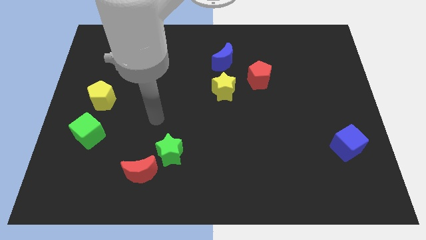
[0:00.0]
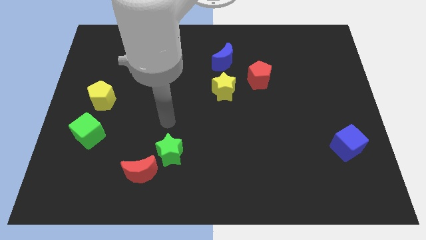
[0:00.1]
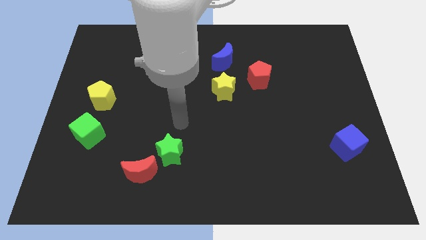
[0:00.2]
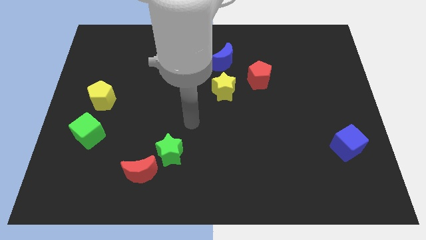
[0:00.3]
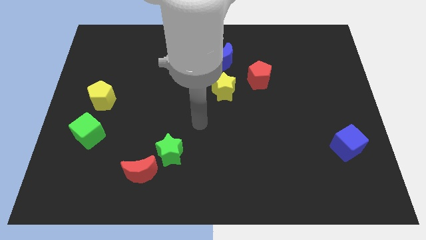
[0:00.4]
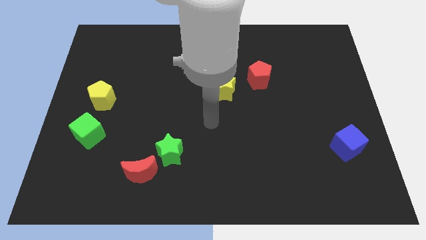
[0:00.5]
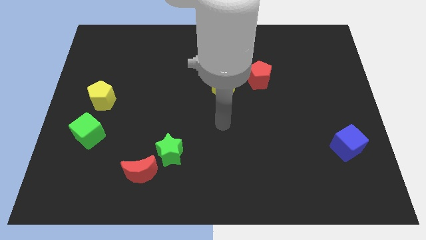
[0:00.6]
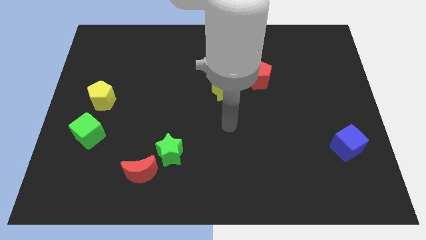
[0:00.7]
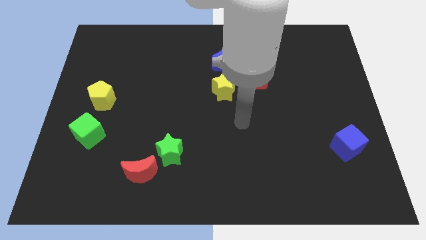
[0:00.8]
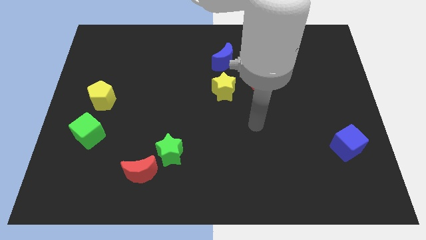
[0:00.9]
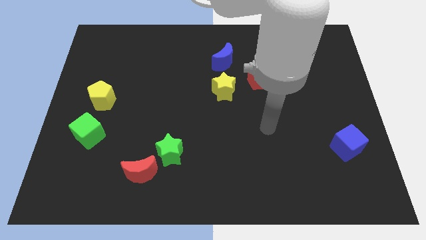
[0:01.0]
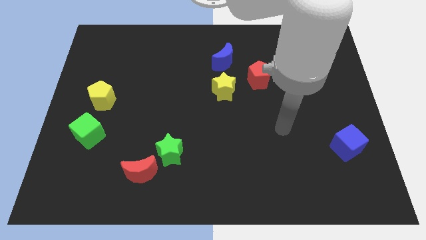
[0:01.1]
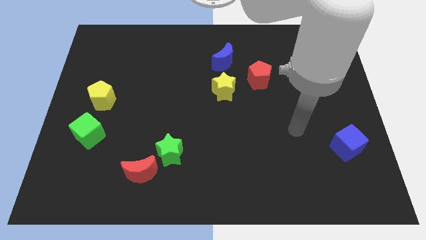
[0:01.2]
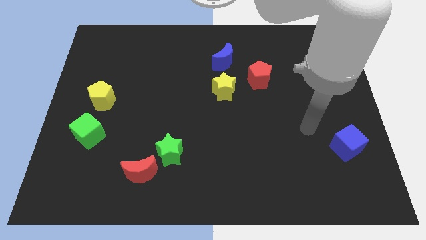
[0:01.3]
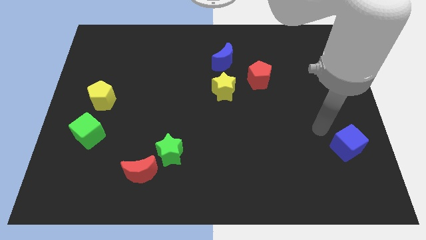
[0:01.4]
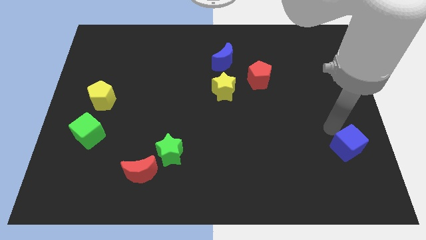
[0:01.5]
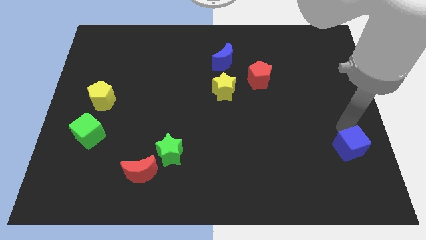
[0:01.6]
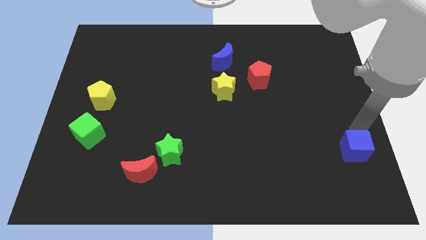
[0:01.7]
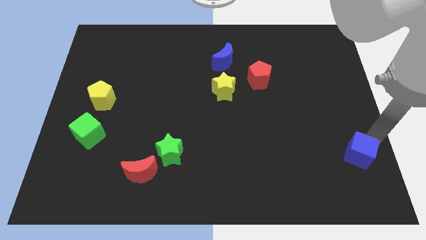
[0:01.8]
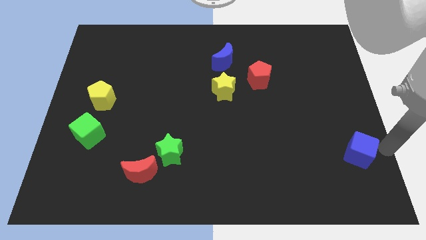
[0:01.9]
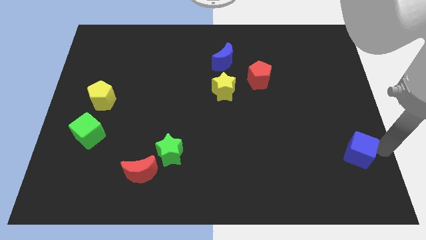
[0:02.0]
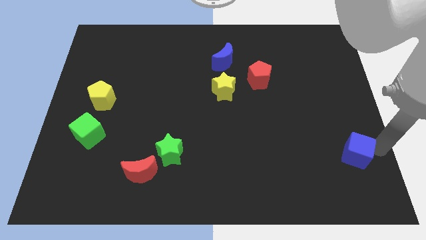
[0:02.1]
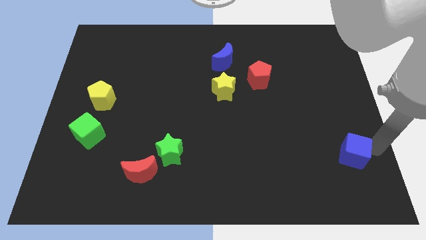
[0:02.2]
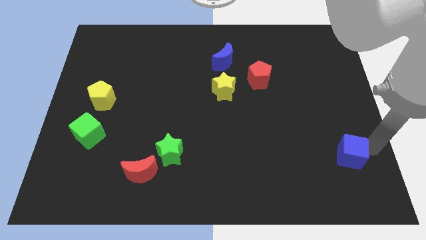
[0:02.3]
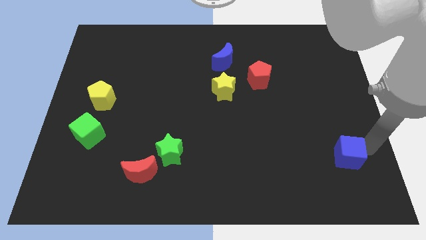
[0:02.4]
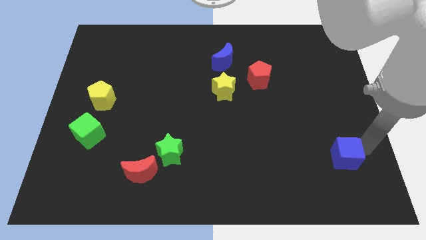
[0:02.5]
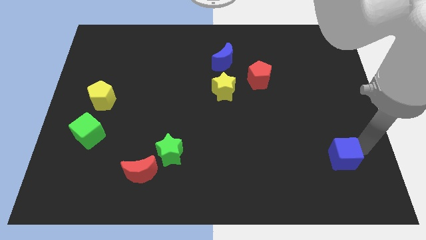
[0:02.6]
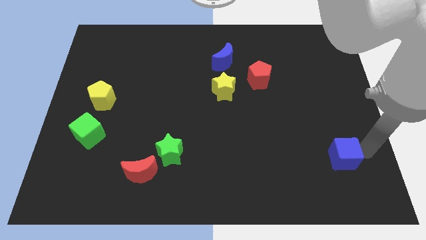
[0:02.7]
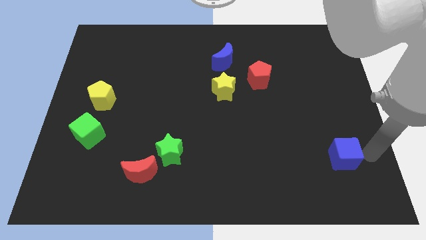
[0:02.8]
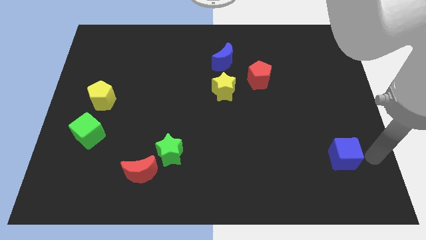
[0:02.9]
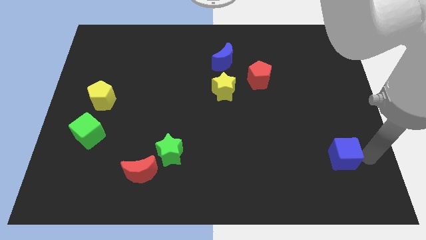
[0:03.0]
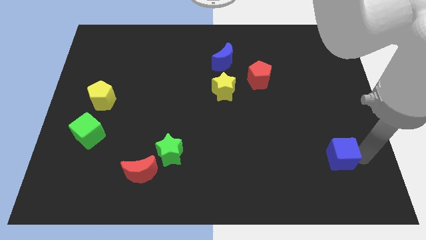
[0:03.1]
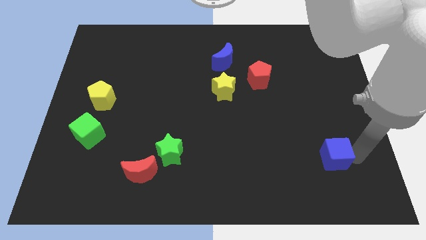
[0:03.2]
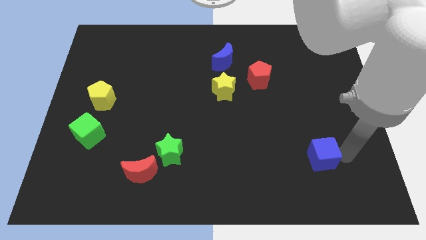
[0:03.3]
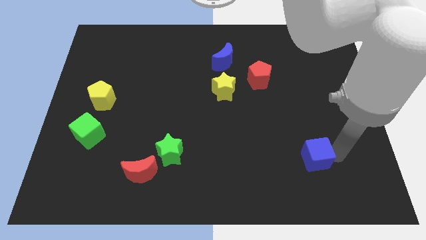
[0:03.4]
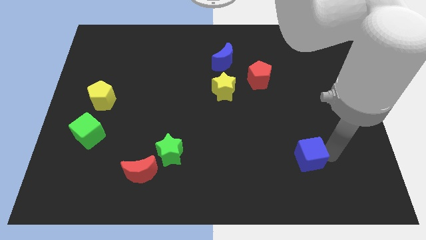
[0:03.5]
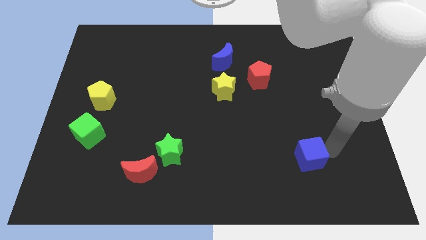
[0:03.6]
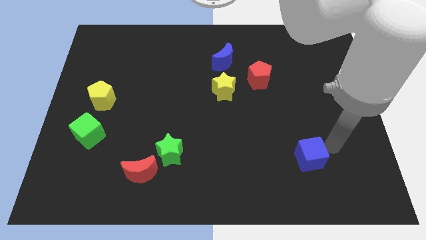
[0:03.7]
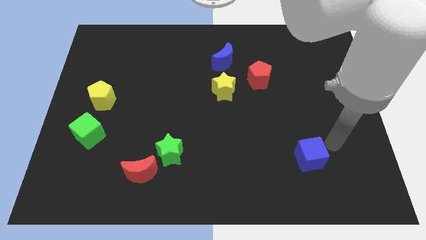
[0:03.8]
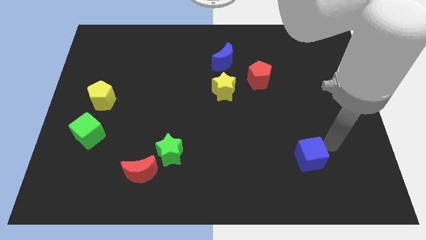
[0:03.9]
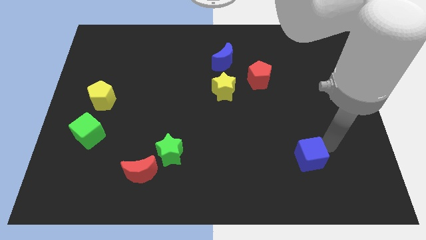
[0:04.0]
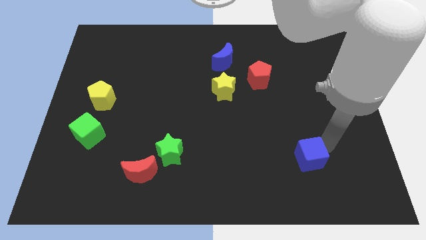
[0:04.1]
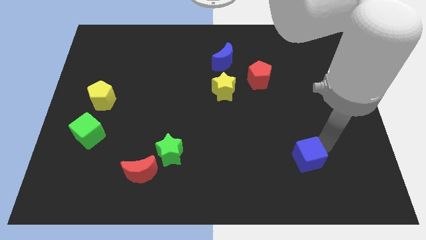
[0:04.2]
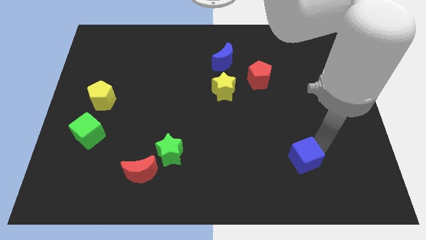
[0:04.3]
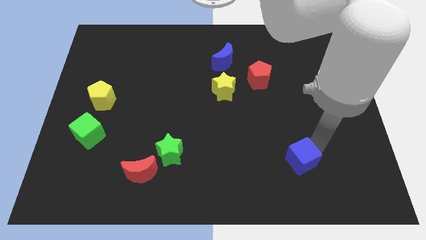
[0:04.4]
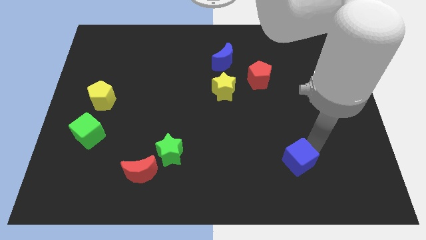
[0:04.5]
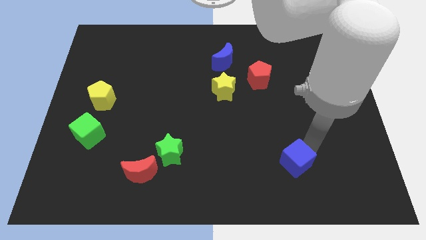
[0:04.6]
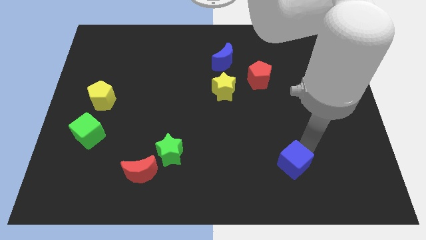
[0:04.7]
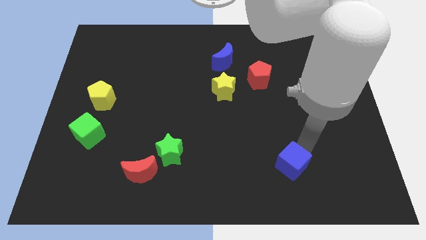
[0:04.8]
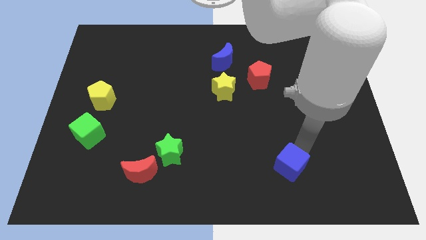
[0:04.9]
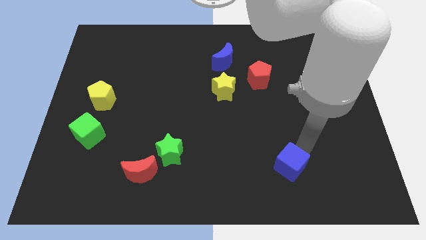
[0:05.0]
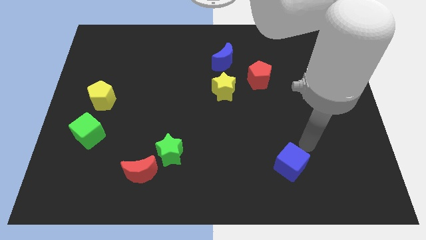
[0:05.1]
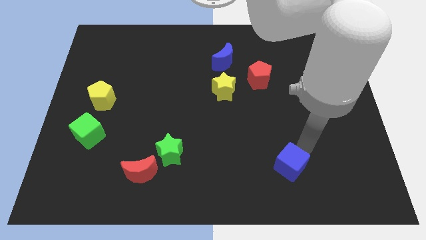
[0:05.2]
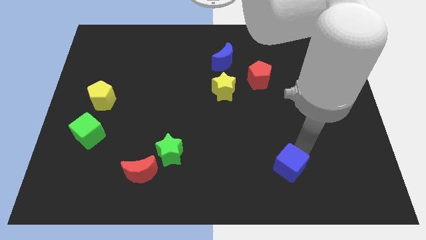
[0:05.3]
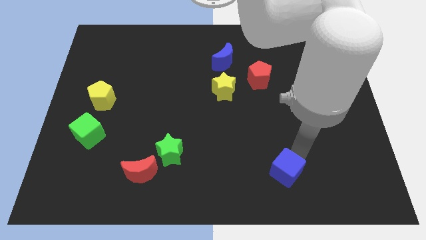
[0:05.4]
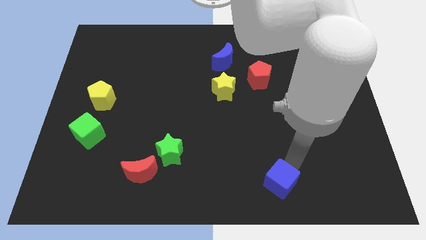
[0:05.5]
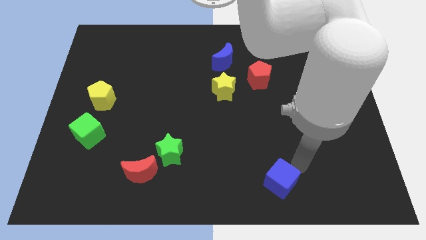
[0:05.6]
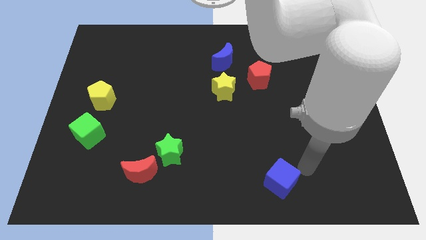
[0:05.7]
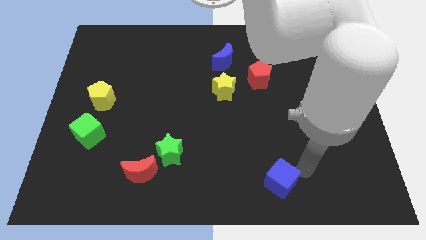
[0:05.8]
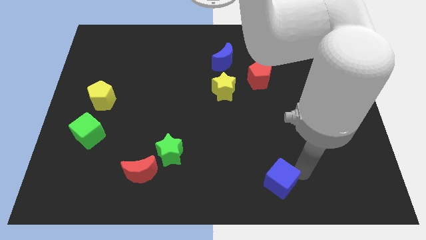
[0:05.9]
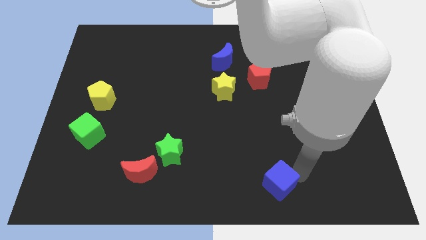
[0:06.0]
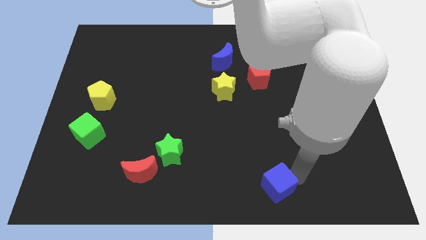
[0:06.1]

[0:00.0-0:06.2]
push the blue cube to the bottom side

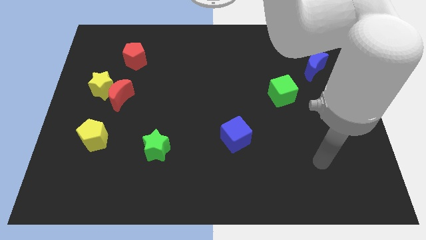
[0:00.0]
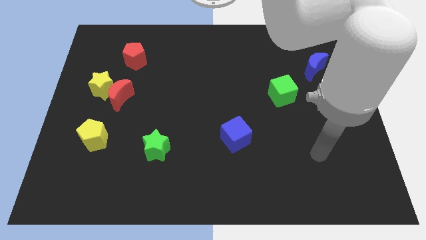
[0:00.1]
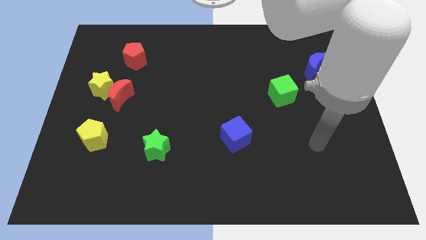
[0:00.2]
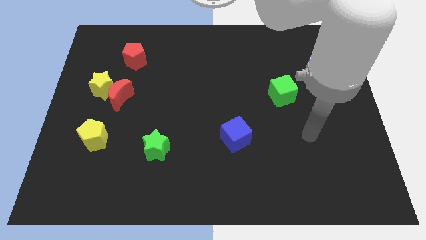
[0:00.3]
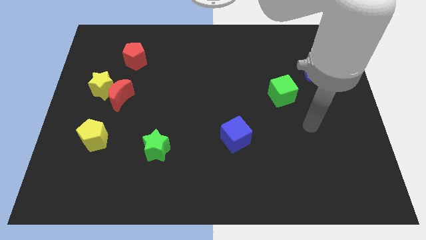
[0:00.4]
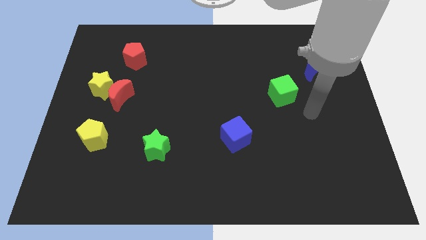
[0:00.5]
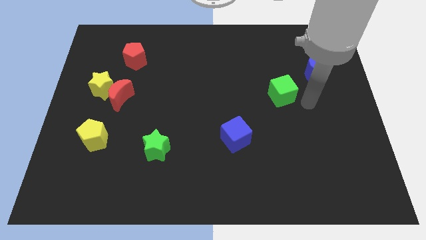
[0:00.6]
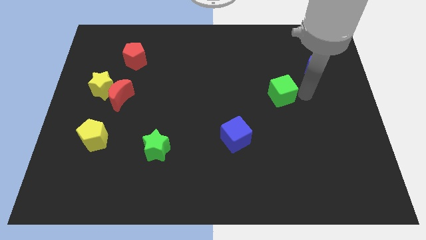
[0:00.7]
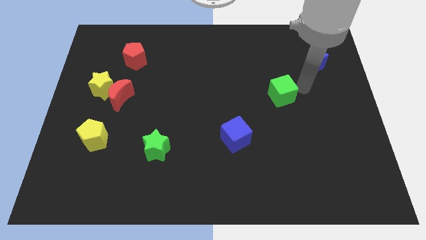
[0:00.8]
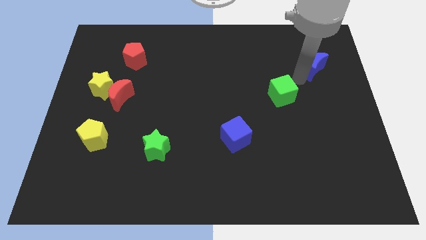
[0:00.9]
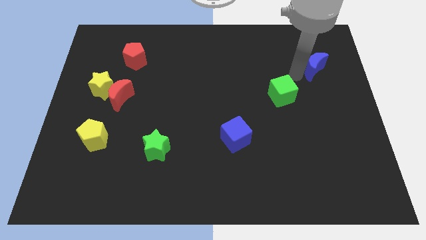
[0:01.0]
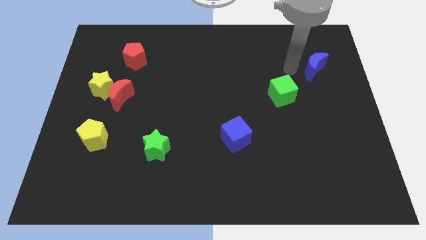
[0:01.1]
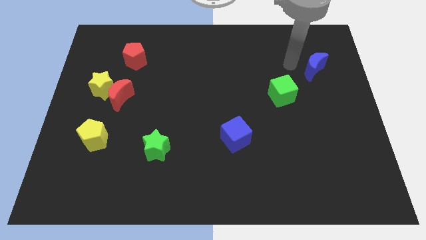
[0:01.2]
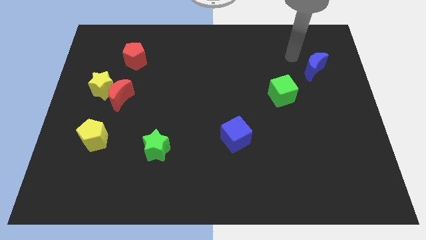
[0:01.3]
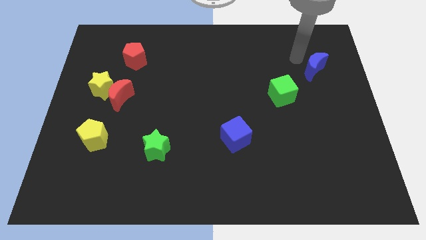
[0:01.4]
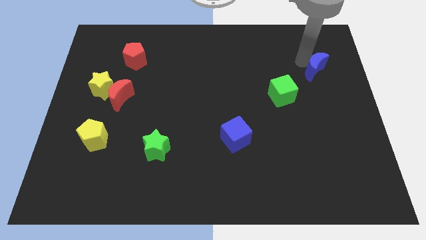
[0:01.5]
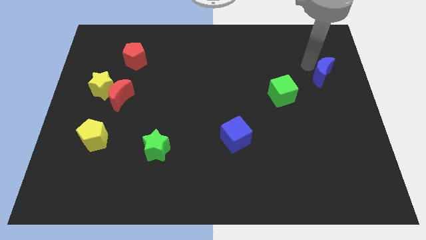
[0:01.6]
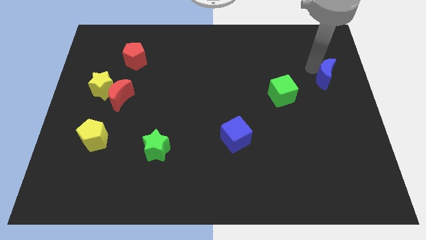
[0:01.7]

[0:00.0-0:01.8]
push the blue moon to the right side
